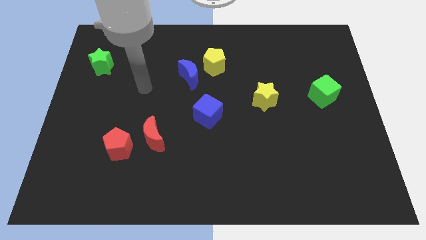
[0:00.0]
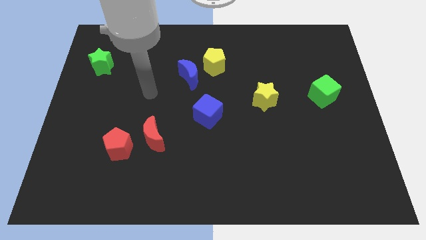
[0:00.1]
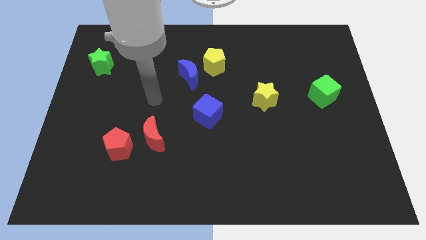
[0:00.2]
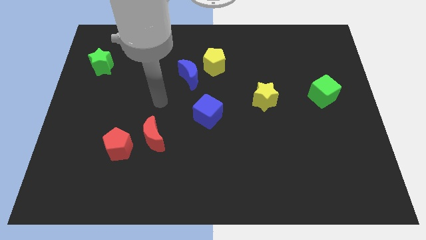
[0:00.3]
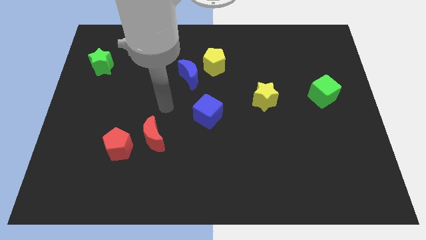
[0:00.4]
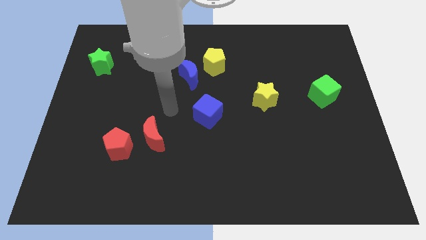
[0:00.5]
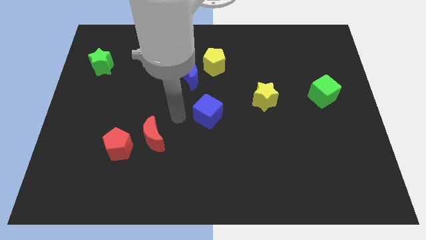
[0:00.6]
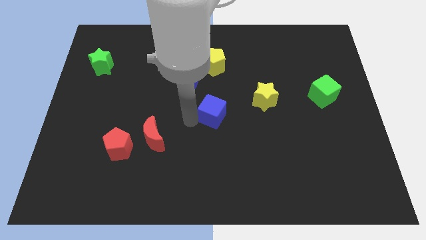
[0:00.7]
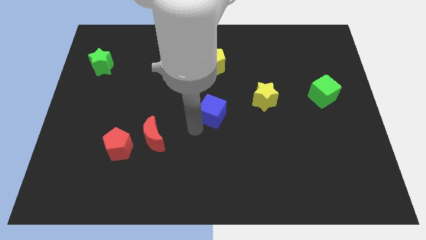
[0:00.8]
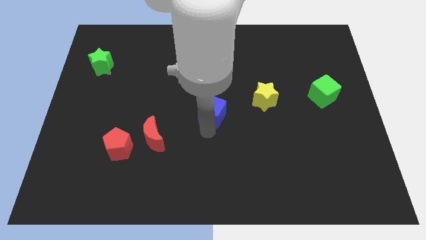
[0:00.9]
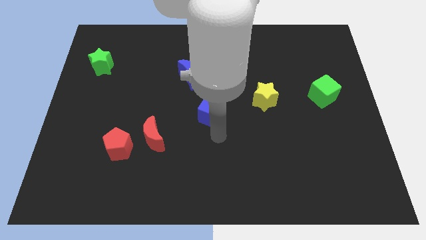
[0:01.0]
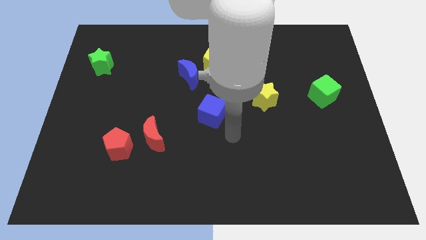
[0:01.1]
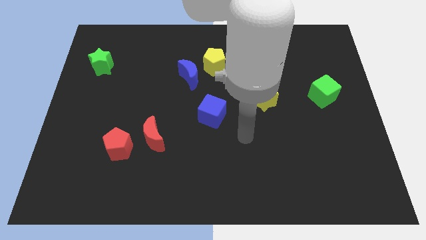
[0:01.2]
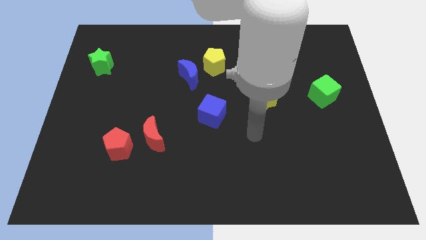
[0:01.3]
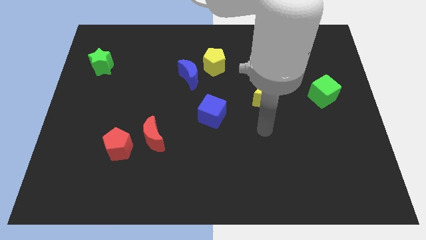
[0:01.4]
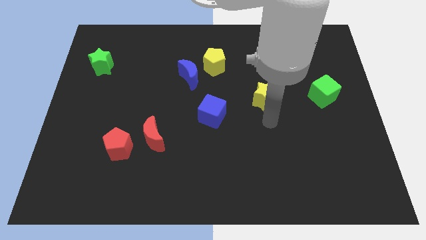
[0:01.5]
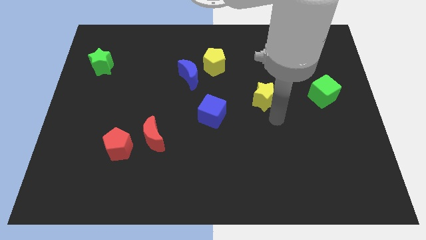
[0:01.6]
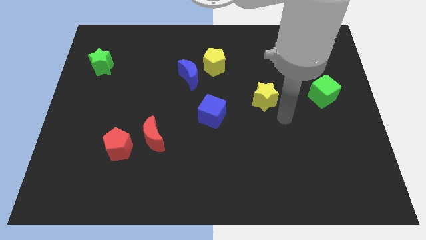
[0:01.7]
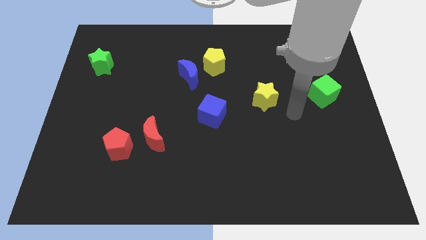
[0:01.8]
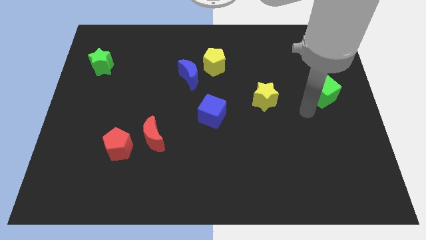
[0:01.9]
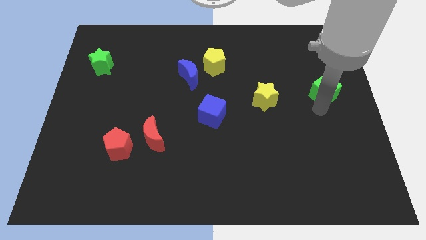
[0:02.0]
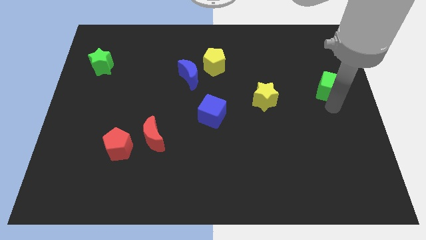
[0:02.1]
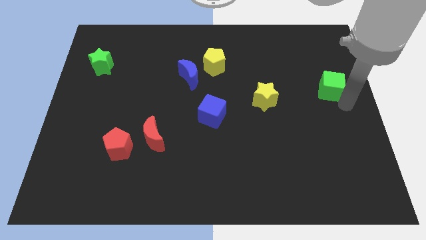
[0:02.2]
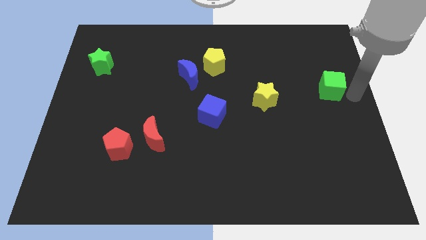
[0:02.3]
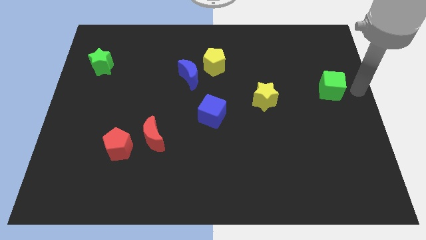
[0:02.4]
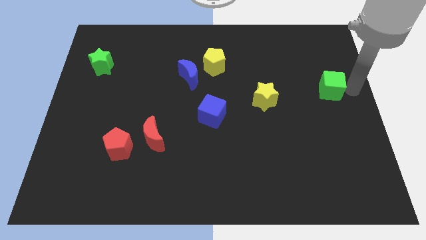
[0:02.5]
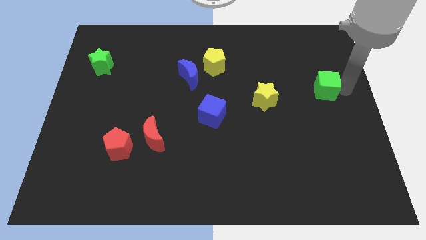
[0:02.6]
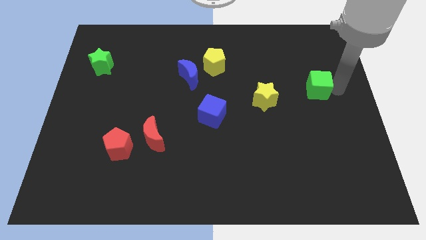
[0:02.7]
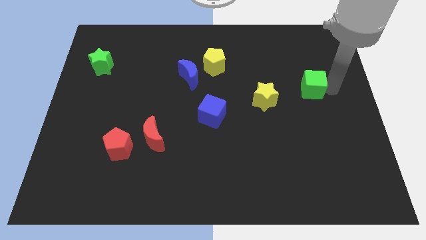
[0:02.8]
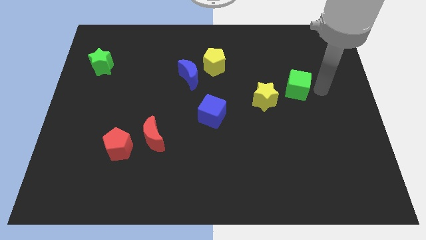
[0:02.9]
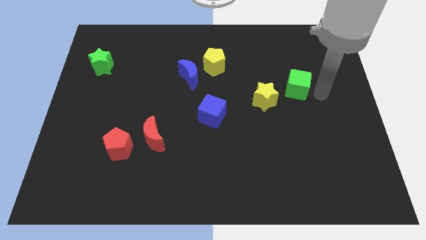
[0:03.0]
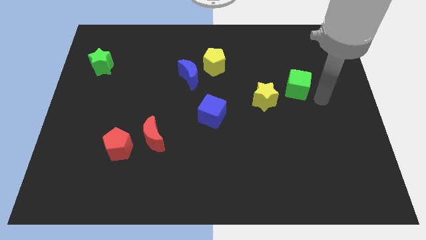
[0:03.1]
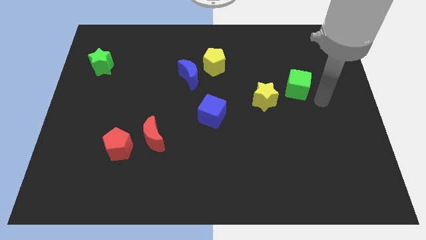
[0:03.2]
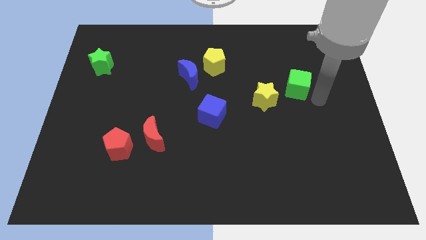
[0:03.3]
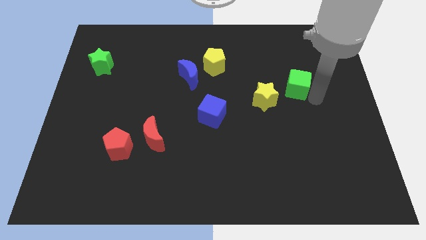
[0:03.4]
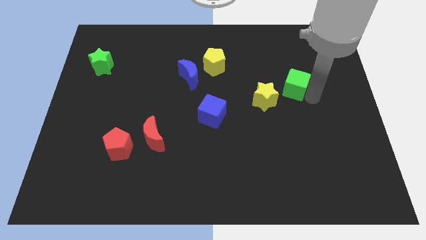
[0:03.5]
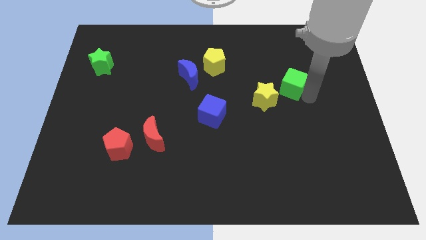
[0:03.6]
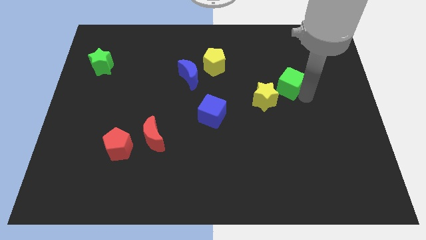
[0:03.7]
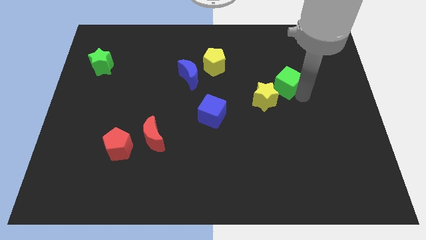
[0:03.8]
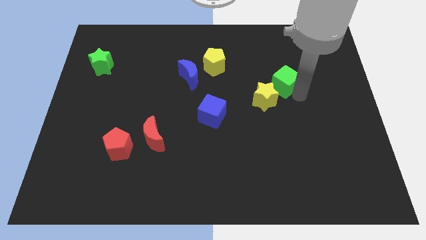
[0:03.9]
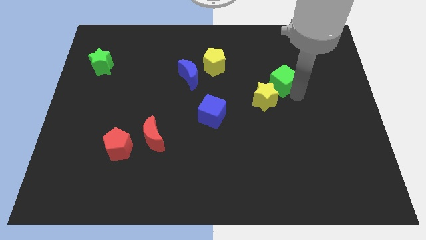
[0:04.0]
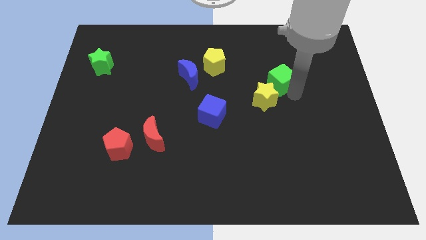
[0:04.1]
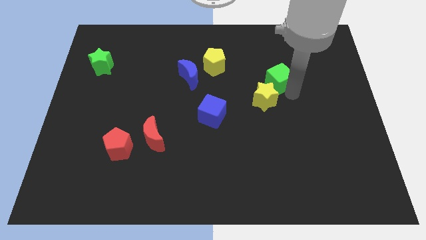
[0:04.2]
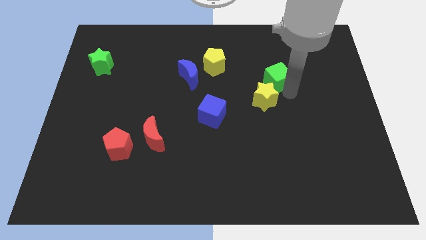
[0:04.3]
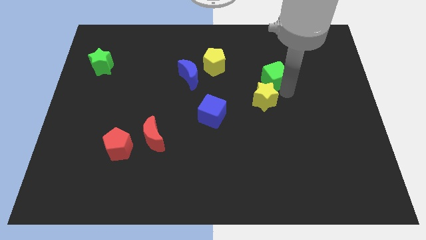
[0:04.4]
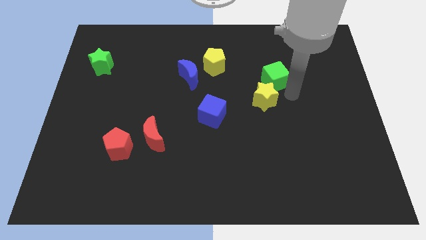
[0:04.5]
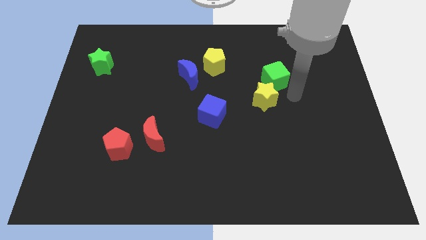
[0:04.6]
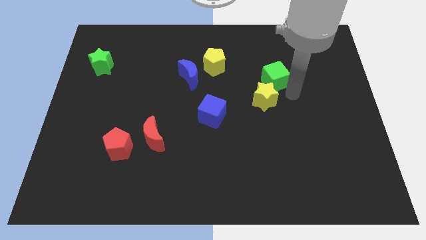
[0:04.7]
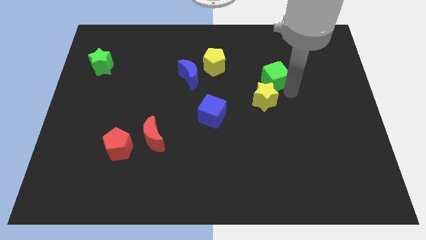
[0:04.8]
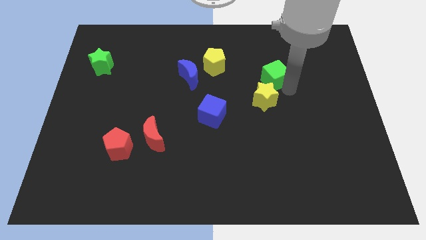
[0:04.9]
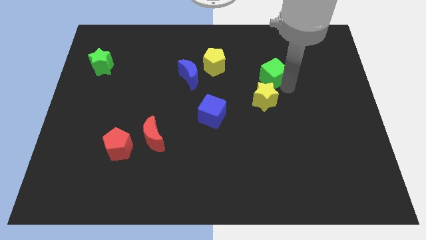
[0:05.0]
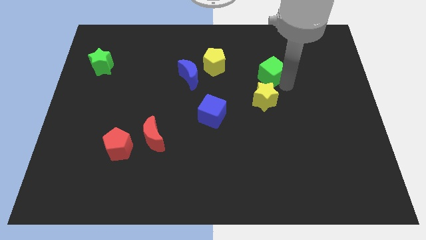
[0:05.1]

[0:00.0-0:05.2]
slide the green cube right of the yellow pentagon

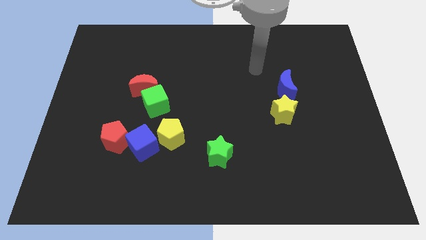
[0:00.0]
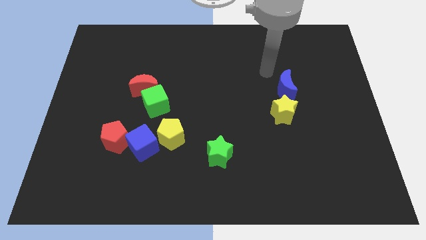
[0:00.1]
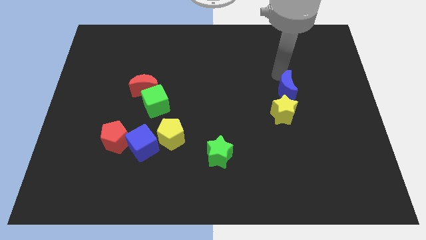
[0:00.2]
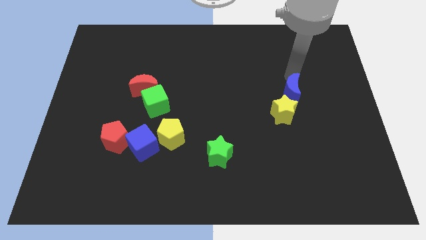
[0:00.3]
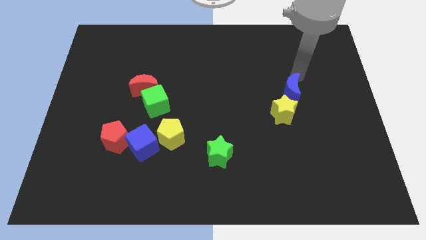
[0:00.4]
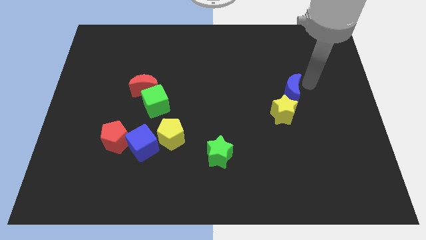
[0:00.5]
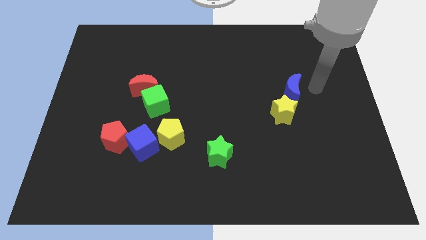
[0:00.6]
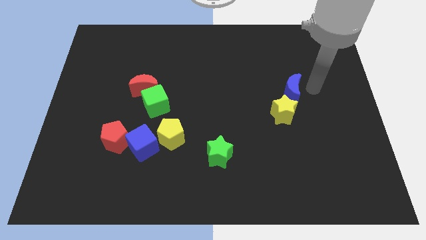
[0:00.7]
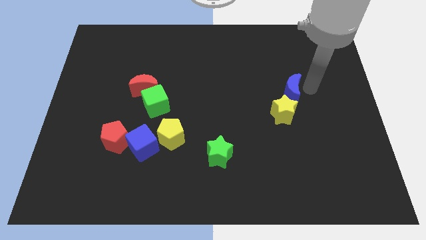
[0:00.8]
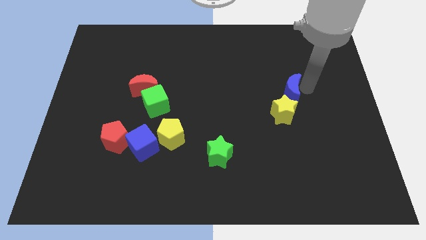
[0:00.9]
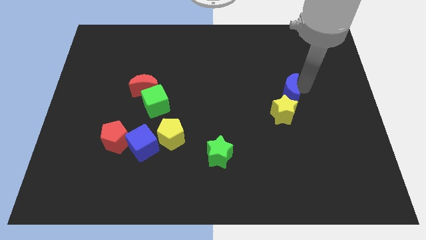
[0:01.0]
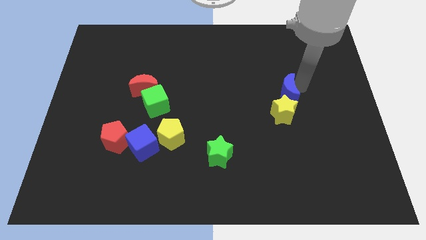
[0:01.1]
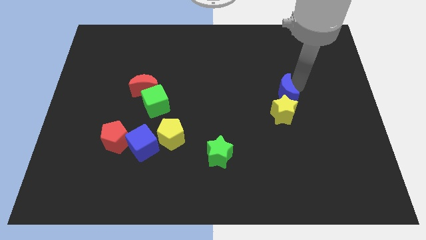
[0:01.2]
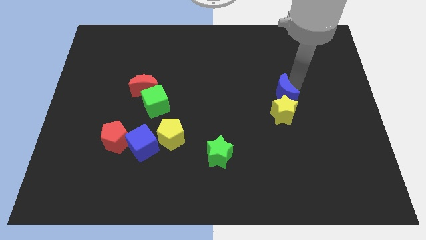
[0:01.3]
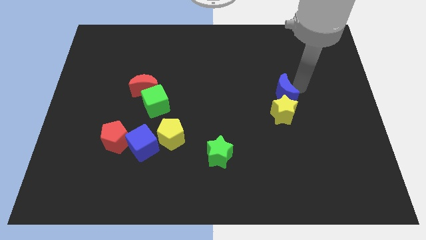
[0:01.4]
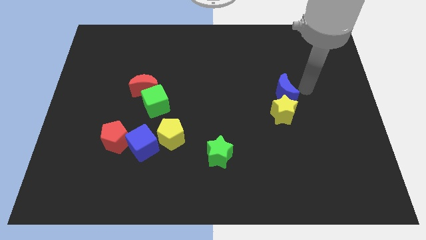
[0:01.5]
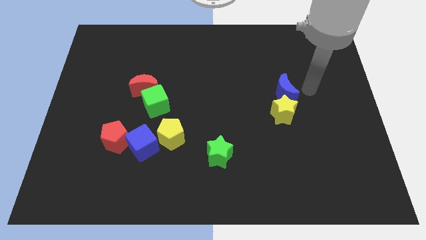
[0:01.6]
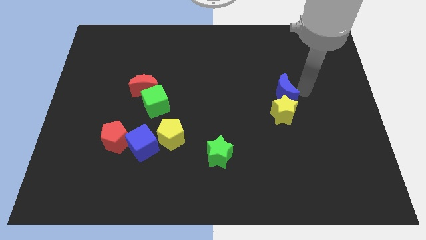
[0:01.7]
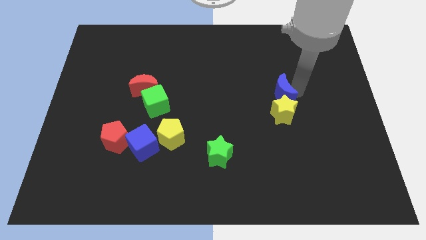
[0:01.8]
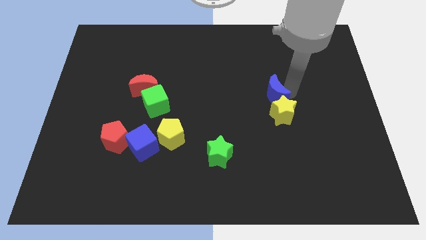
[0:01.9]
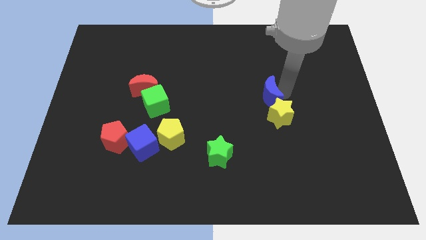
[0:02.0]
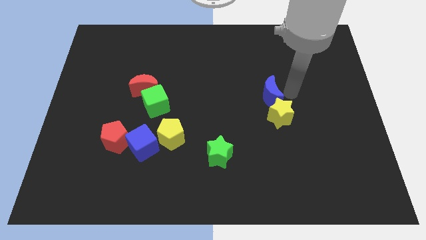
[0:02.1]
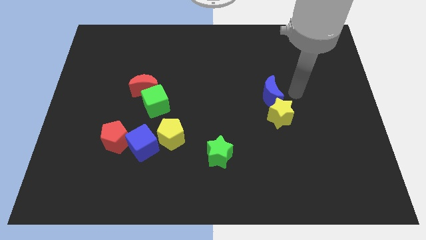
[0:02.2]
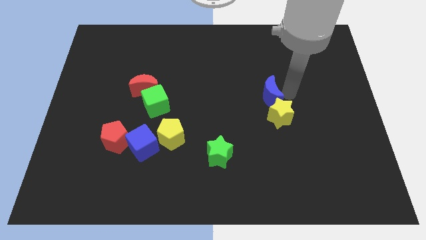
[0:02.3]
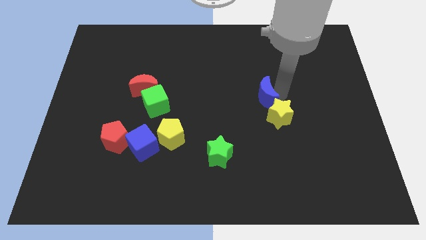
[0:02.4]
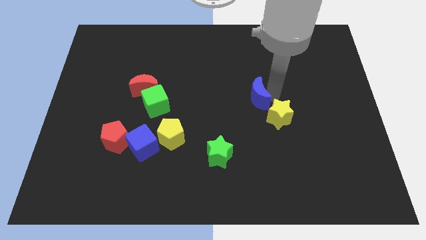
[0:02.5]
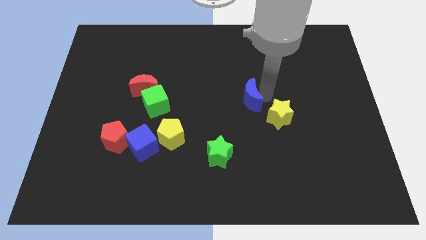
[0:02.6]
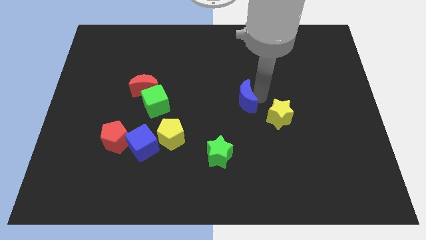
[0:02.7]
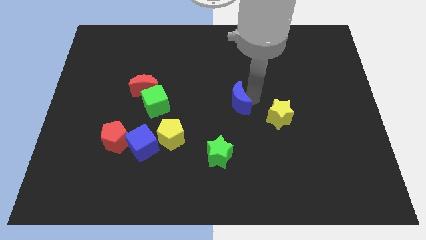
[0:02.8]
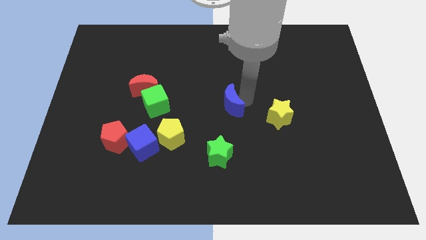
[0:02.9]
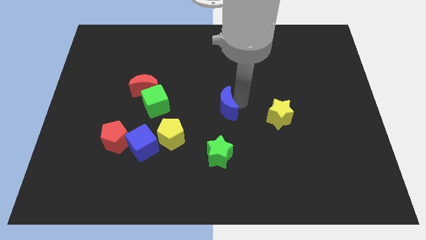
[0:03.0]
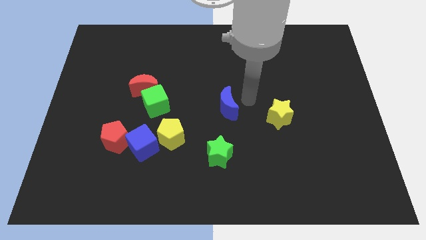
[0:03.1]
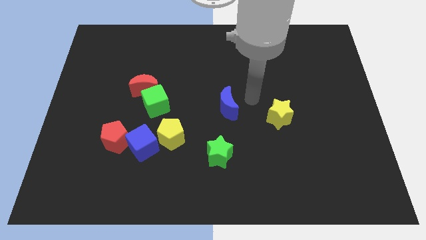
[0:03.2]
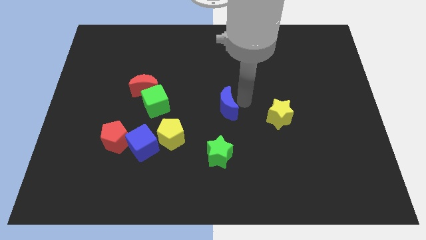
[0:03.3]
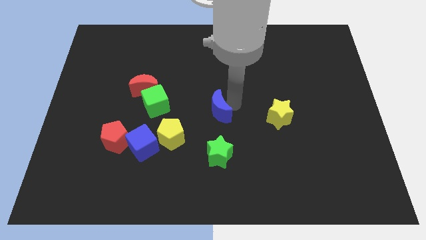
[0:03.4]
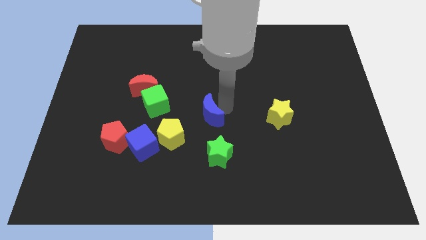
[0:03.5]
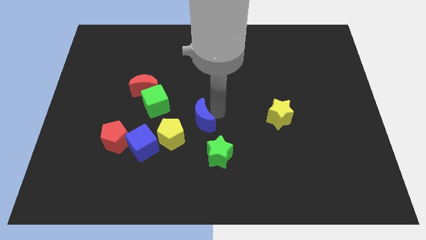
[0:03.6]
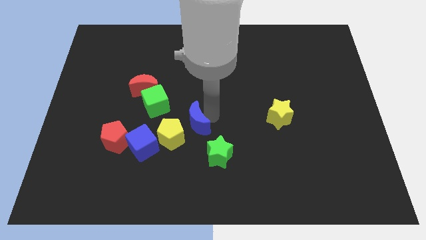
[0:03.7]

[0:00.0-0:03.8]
push the blue moon to the bottom right side of the green cube
